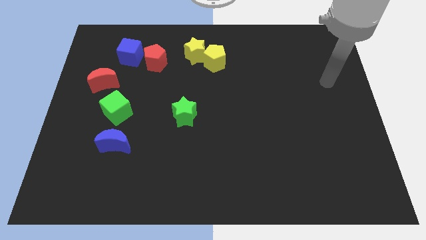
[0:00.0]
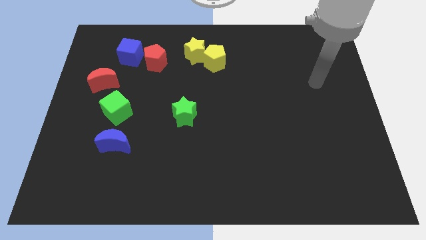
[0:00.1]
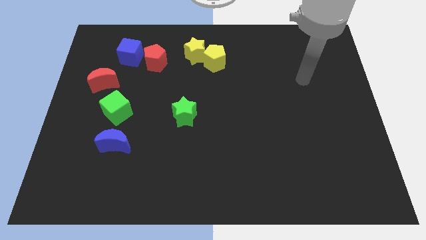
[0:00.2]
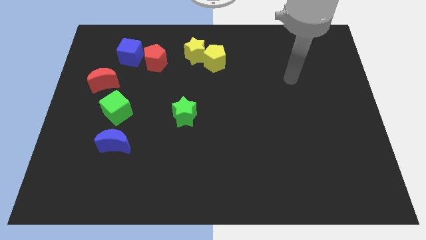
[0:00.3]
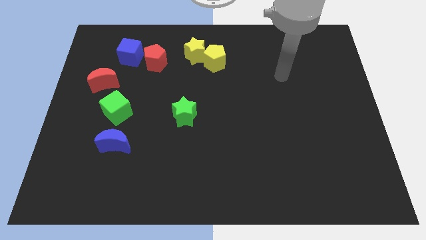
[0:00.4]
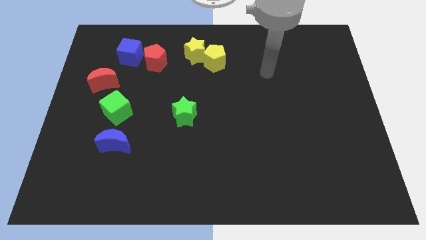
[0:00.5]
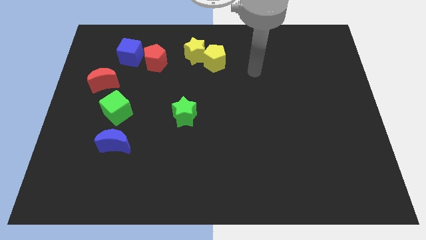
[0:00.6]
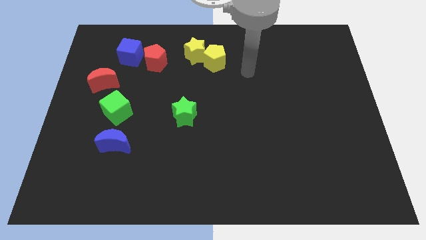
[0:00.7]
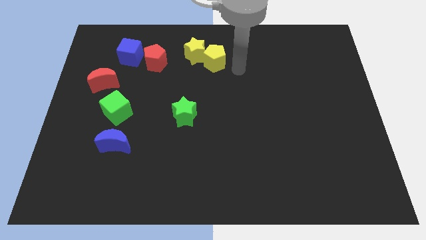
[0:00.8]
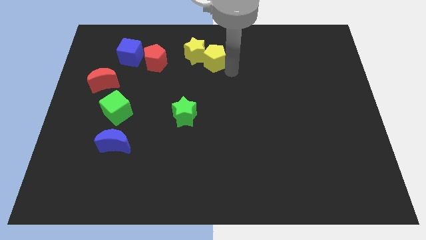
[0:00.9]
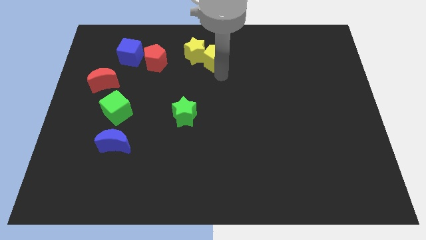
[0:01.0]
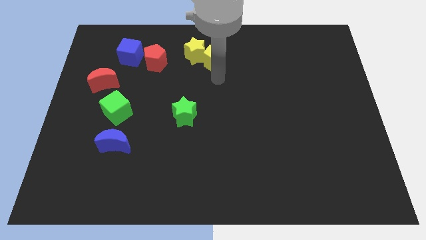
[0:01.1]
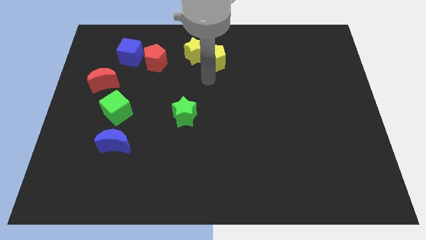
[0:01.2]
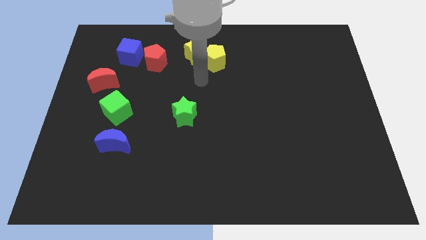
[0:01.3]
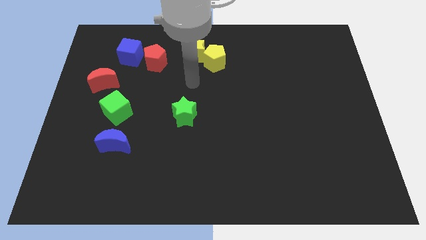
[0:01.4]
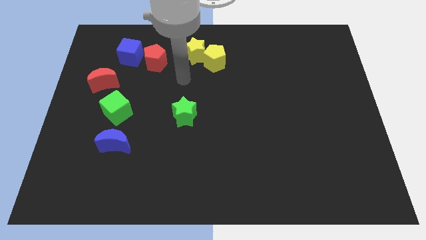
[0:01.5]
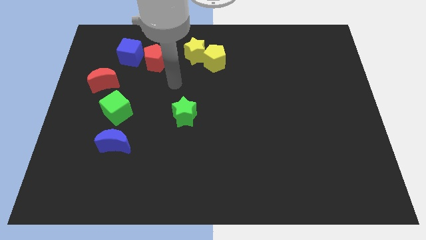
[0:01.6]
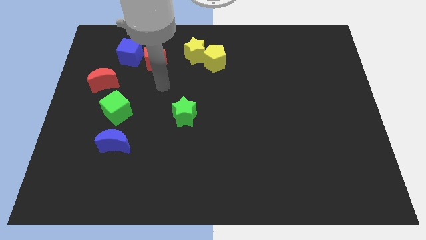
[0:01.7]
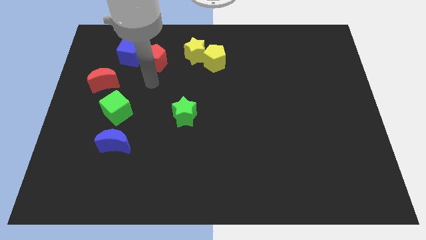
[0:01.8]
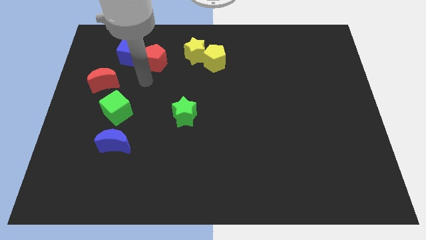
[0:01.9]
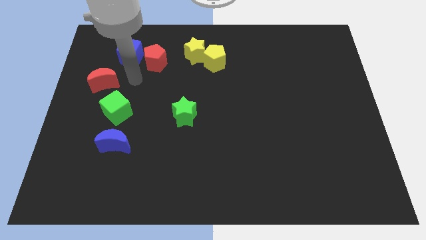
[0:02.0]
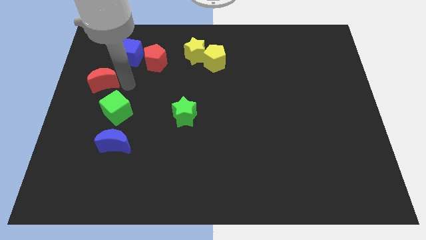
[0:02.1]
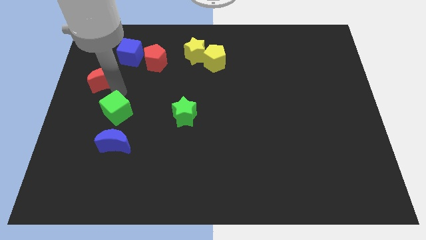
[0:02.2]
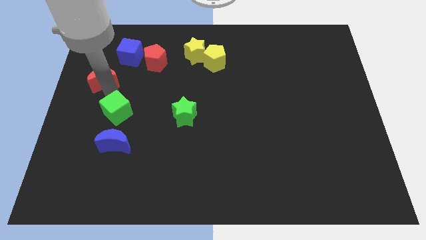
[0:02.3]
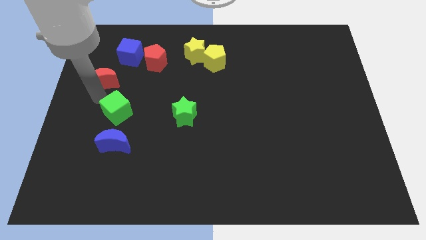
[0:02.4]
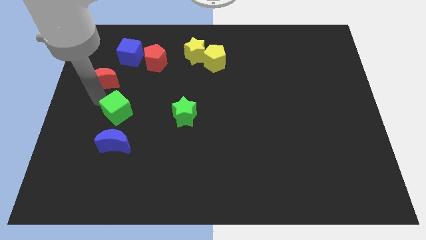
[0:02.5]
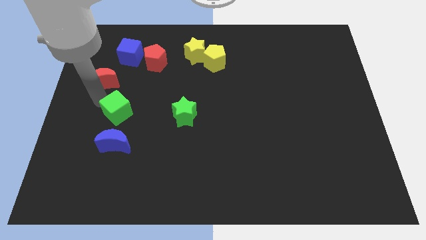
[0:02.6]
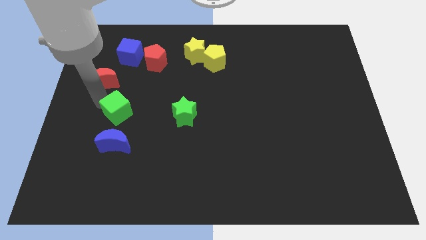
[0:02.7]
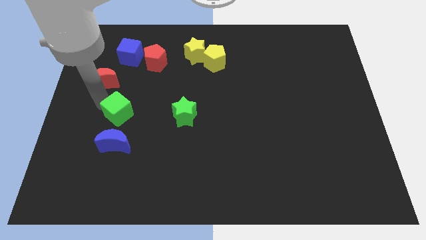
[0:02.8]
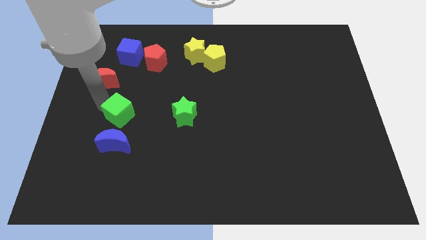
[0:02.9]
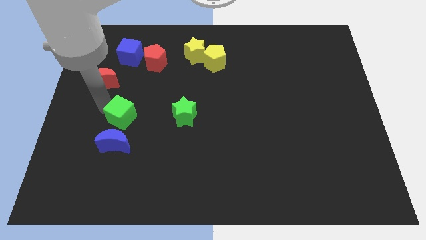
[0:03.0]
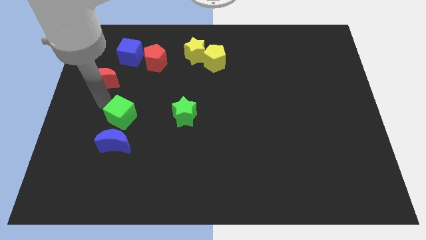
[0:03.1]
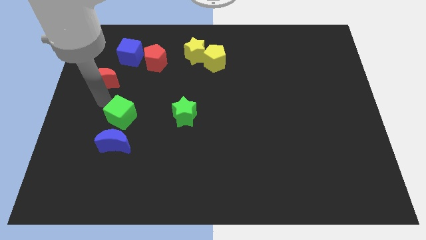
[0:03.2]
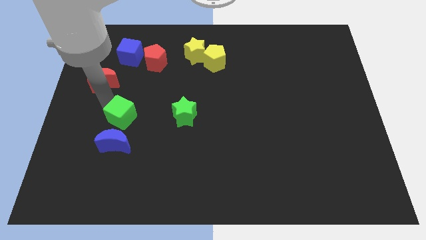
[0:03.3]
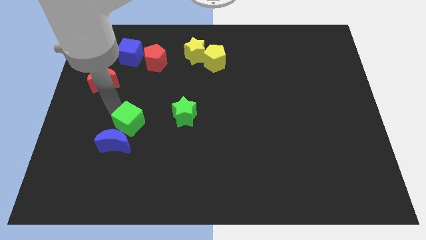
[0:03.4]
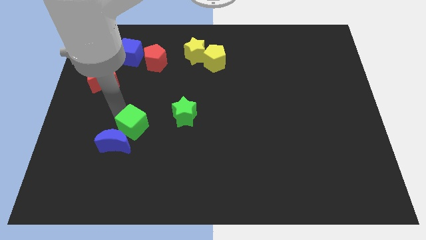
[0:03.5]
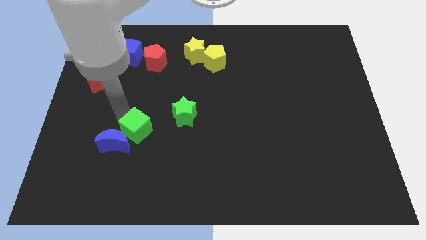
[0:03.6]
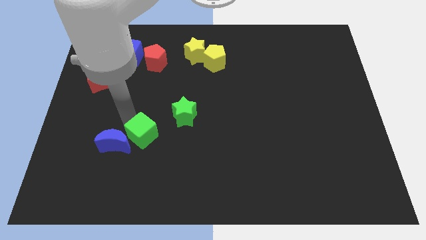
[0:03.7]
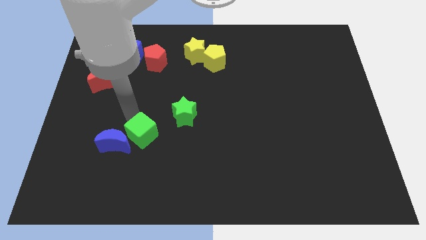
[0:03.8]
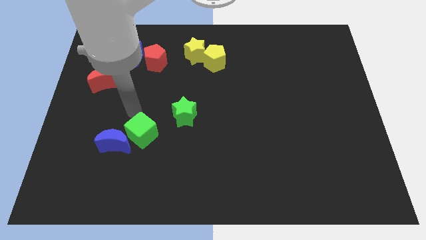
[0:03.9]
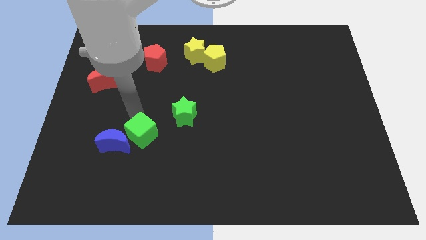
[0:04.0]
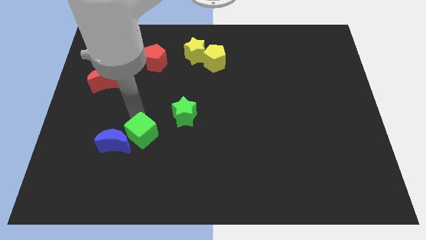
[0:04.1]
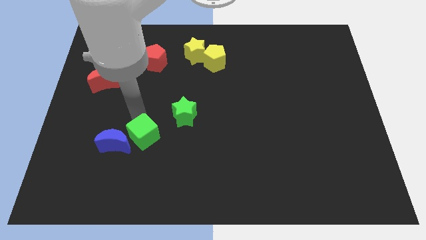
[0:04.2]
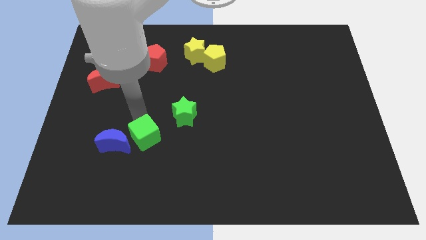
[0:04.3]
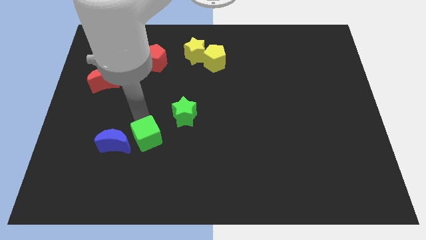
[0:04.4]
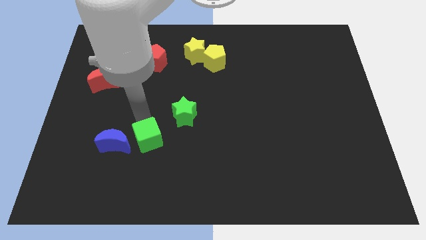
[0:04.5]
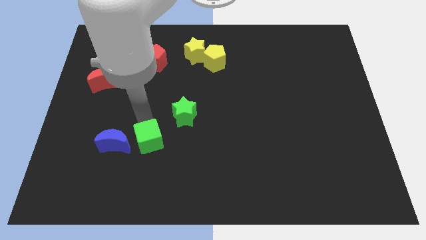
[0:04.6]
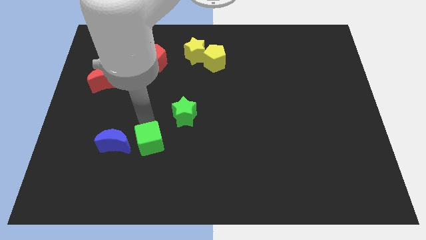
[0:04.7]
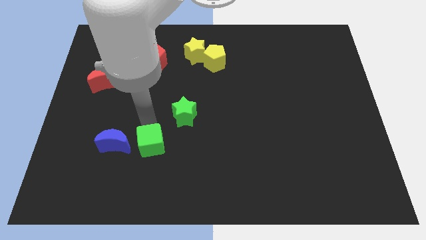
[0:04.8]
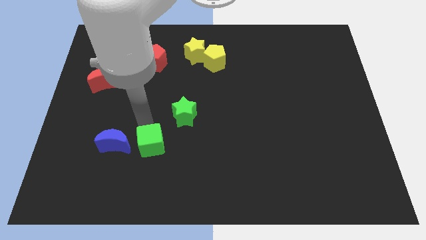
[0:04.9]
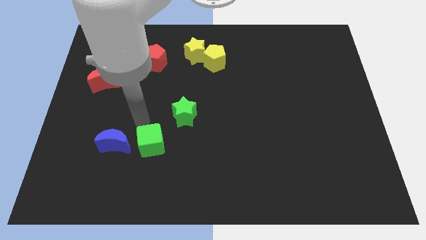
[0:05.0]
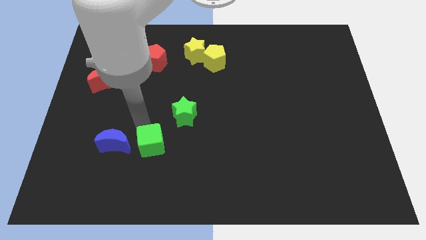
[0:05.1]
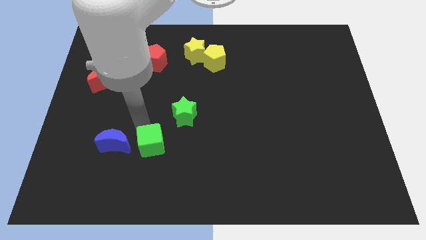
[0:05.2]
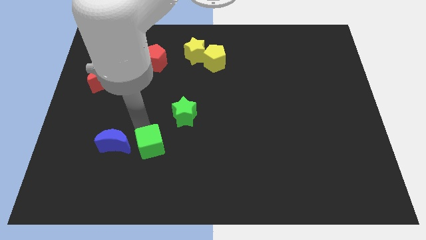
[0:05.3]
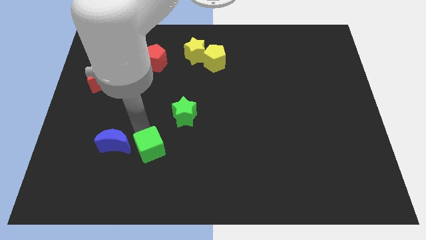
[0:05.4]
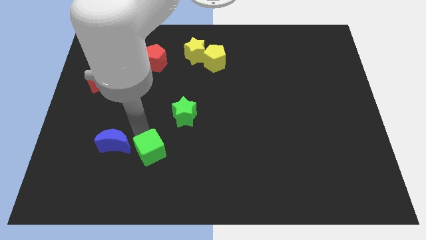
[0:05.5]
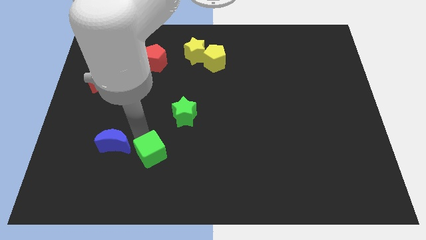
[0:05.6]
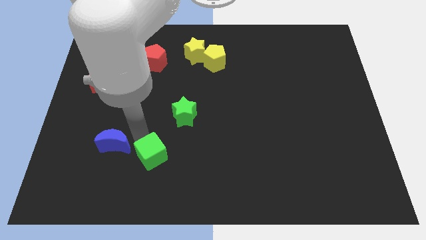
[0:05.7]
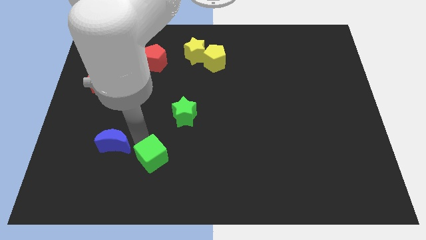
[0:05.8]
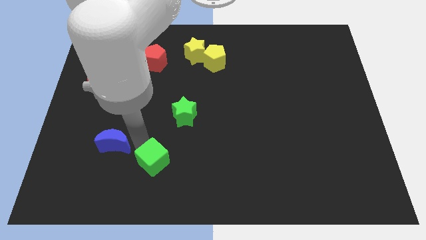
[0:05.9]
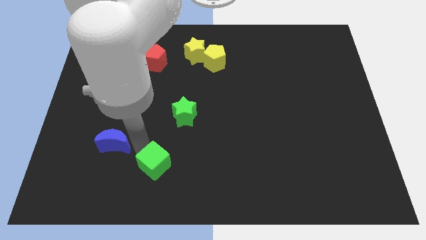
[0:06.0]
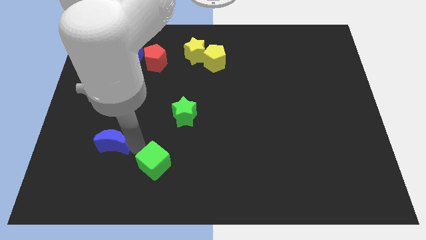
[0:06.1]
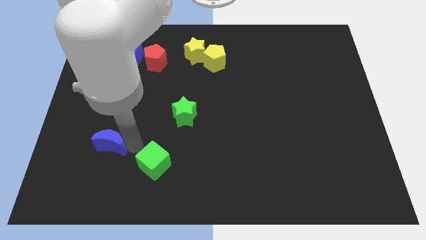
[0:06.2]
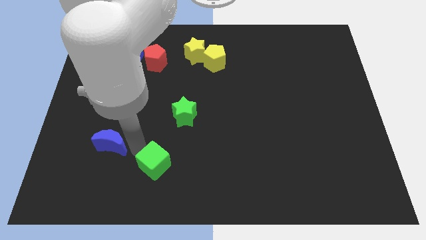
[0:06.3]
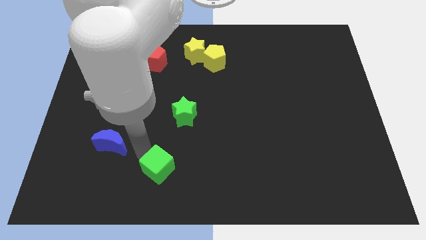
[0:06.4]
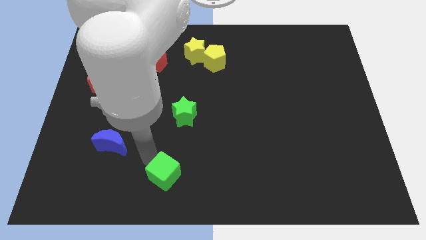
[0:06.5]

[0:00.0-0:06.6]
move the green cube to the bottom side

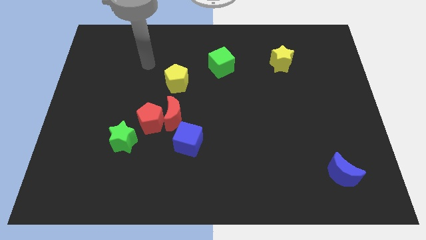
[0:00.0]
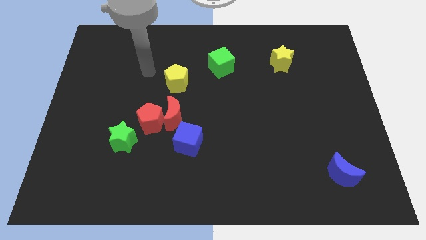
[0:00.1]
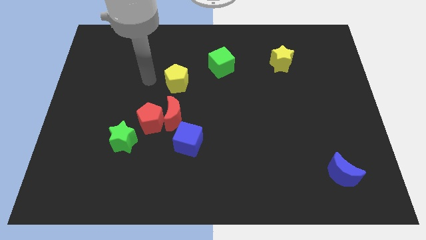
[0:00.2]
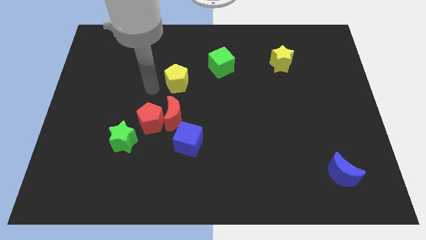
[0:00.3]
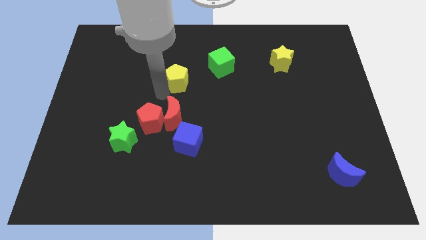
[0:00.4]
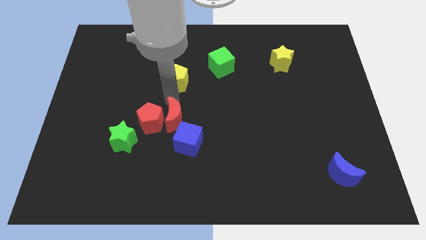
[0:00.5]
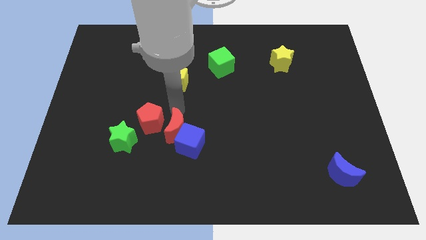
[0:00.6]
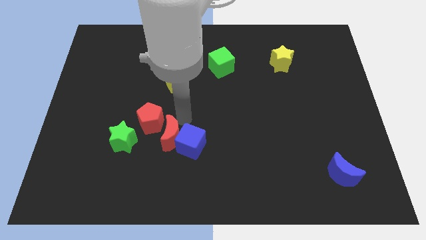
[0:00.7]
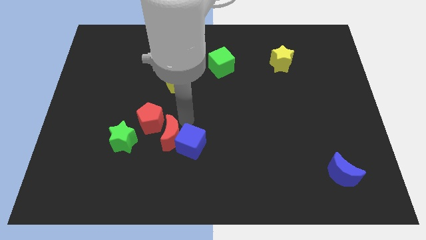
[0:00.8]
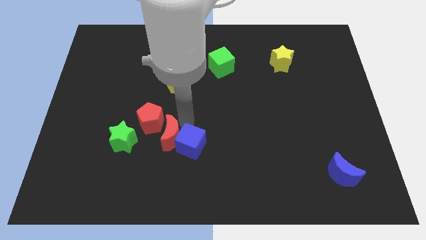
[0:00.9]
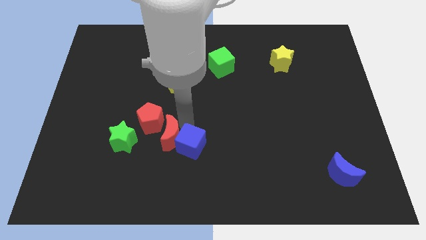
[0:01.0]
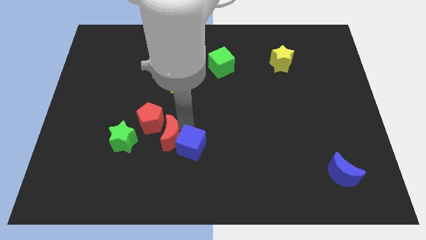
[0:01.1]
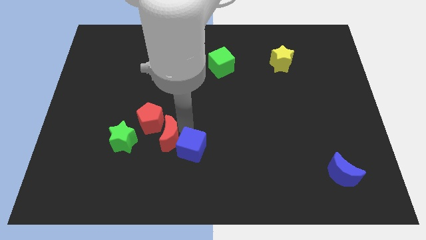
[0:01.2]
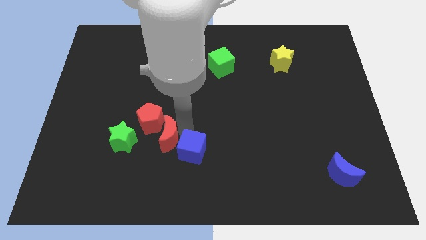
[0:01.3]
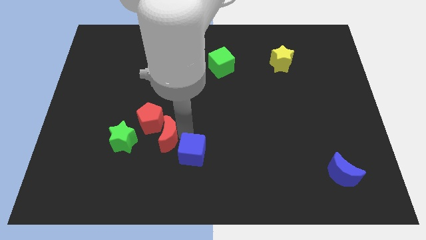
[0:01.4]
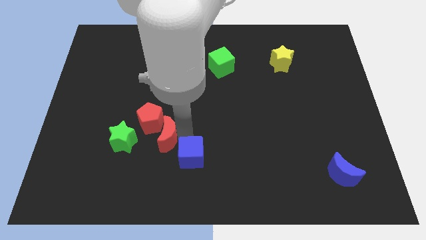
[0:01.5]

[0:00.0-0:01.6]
put the blue cube to the bottom side
